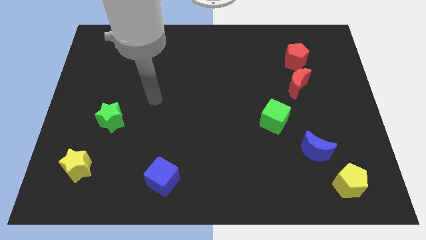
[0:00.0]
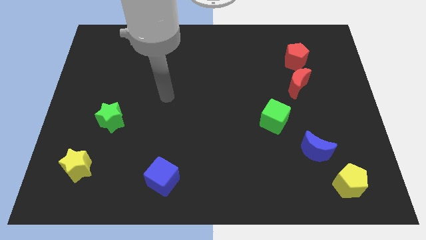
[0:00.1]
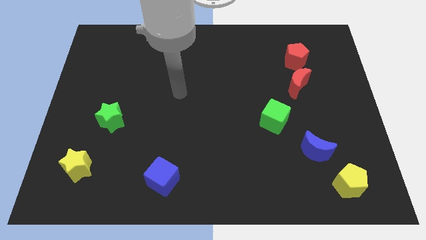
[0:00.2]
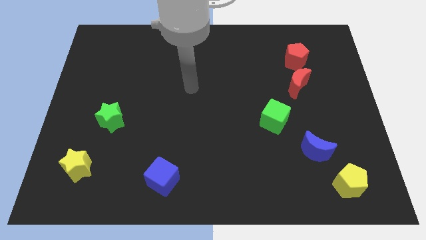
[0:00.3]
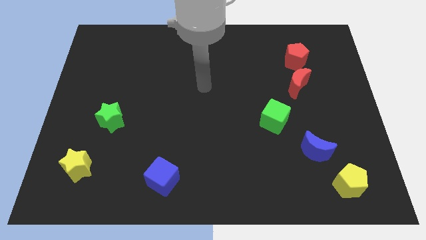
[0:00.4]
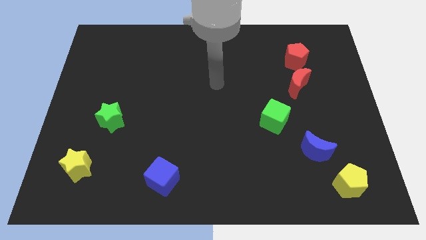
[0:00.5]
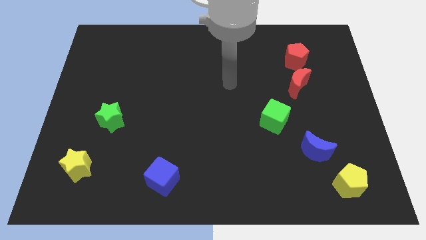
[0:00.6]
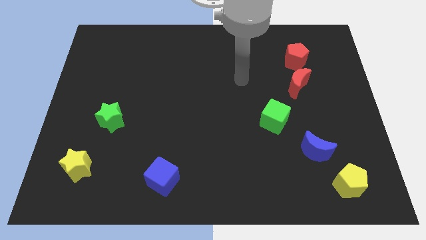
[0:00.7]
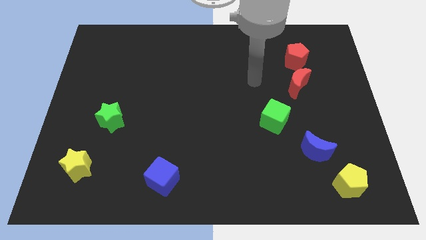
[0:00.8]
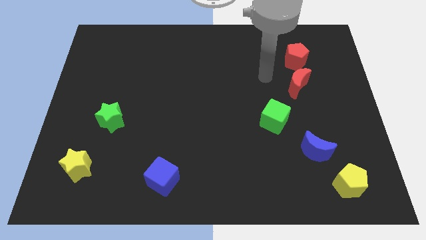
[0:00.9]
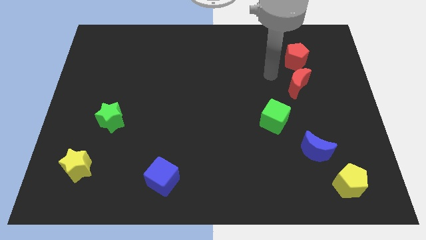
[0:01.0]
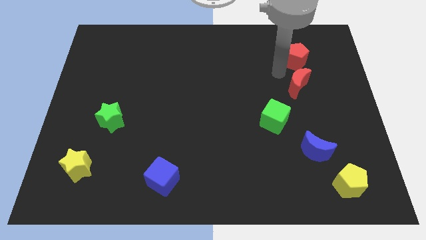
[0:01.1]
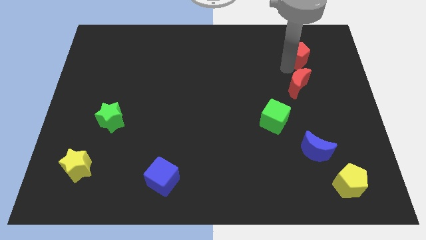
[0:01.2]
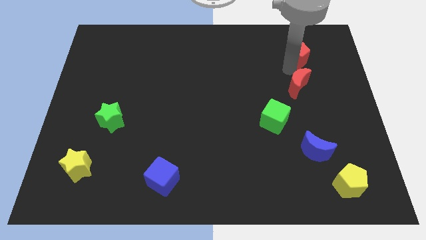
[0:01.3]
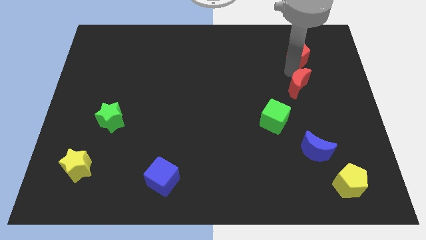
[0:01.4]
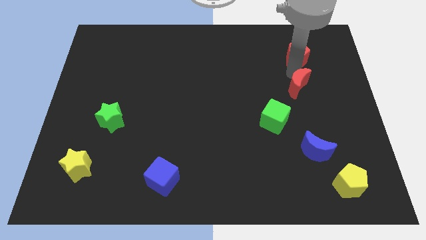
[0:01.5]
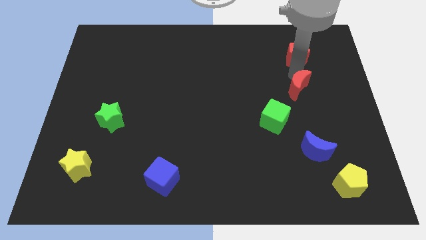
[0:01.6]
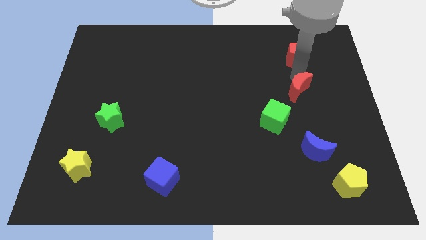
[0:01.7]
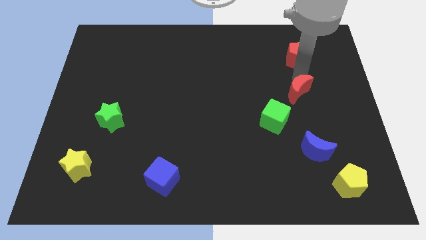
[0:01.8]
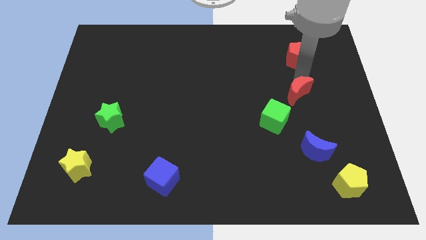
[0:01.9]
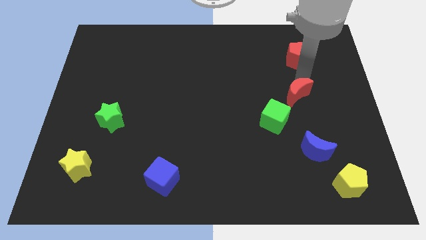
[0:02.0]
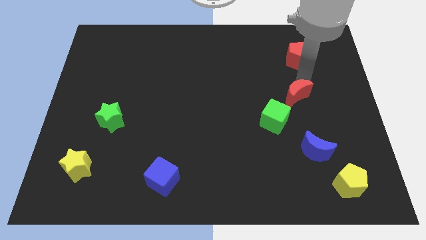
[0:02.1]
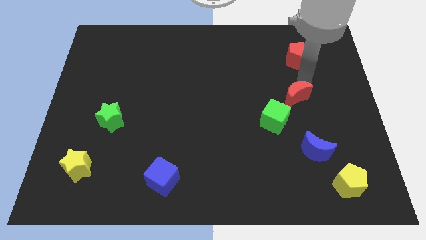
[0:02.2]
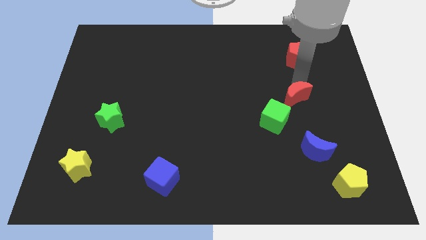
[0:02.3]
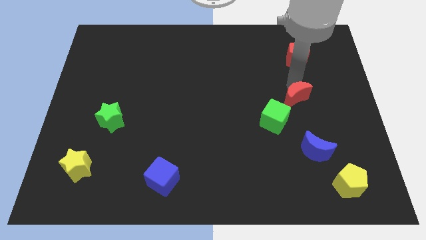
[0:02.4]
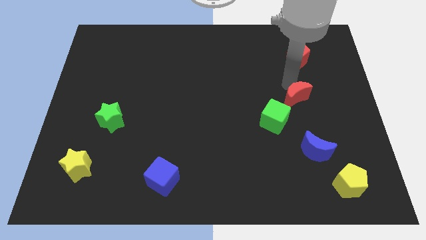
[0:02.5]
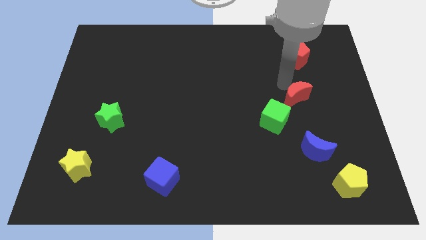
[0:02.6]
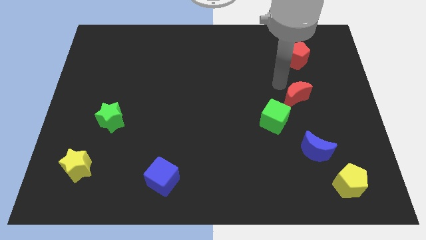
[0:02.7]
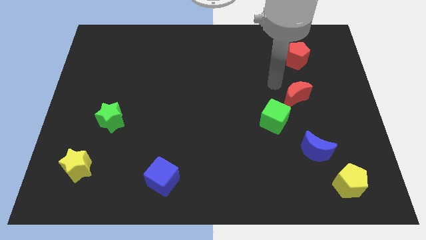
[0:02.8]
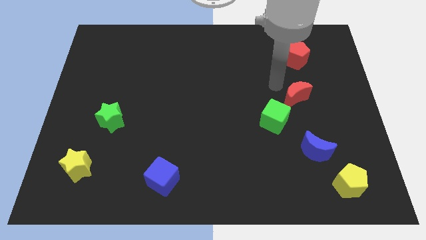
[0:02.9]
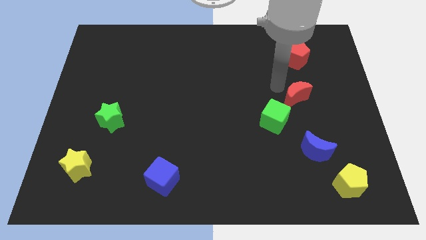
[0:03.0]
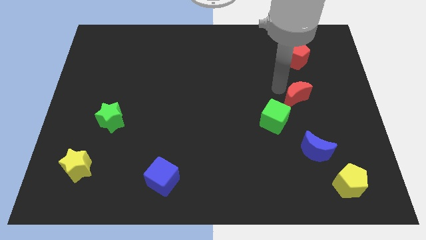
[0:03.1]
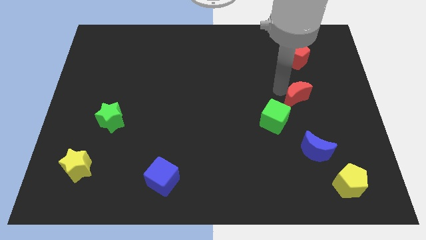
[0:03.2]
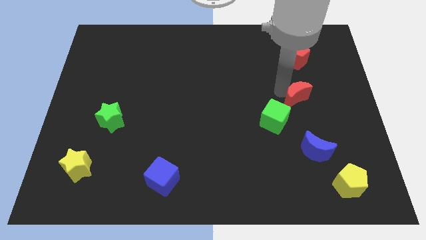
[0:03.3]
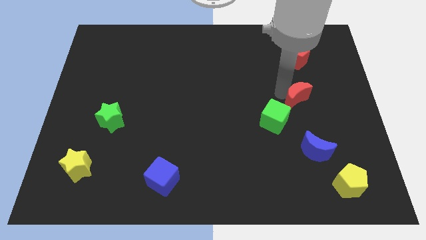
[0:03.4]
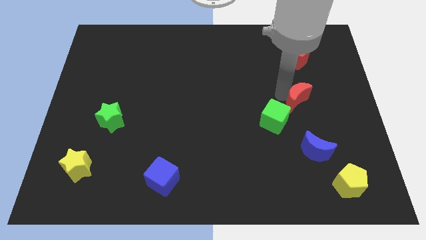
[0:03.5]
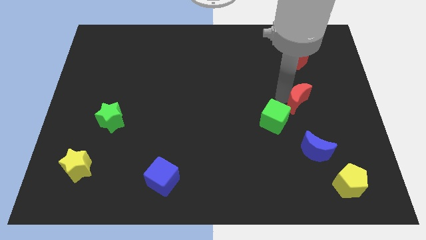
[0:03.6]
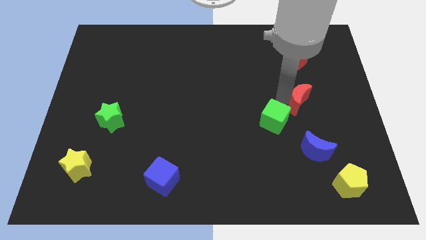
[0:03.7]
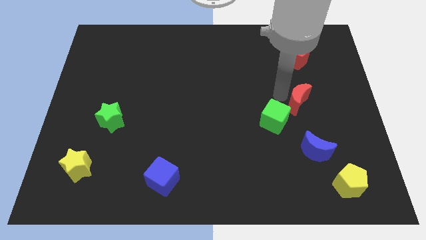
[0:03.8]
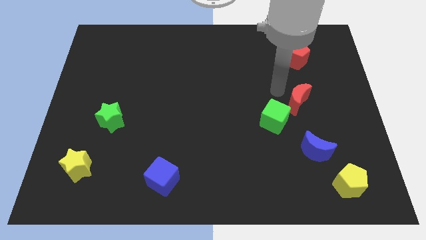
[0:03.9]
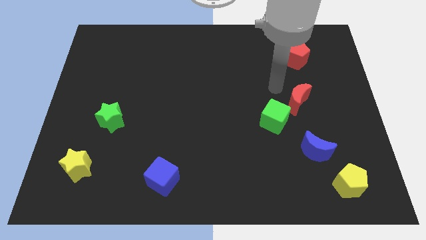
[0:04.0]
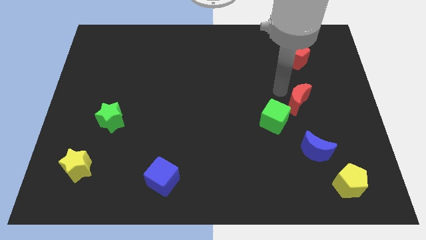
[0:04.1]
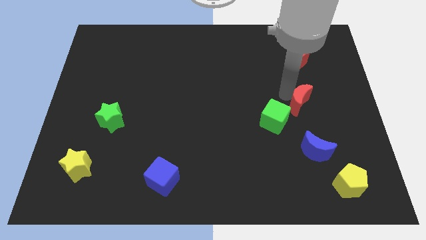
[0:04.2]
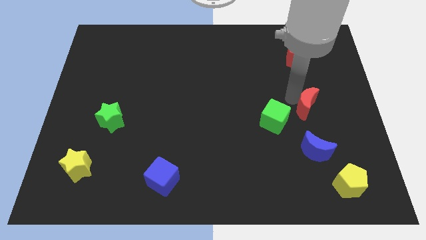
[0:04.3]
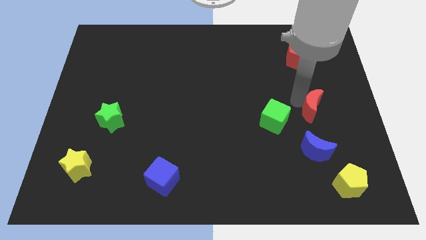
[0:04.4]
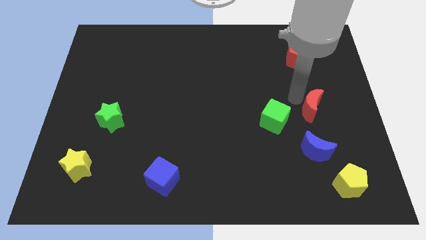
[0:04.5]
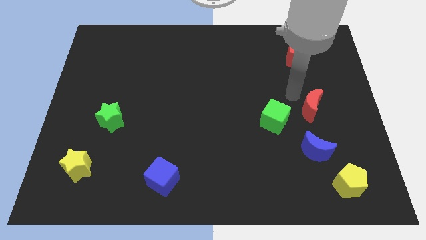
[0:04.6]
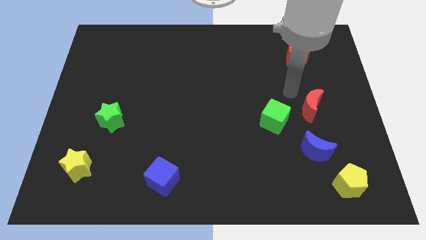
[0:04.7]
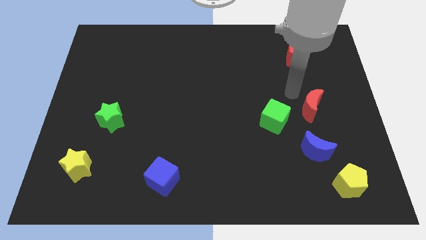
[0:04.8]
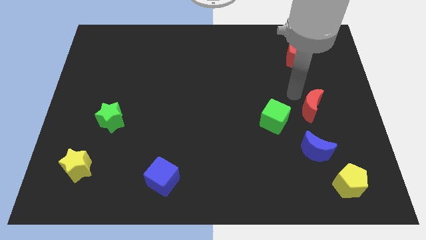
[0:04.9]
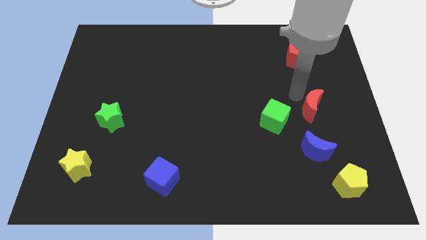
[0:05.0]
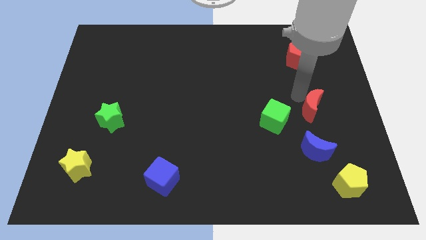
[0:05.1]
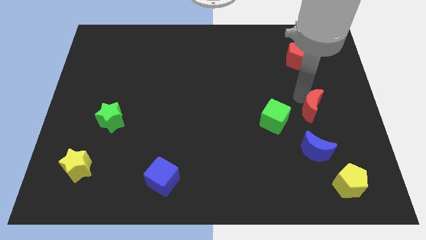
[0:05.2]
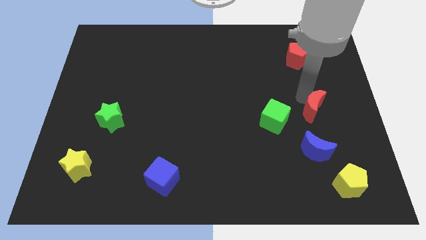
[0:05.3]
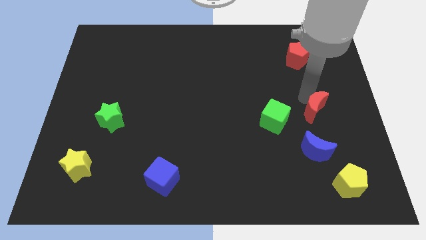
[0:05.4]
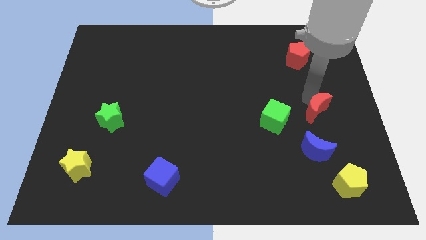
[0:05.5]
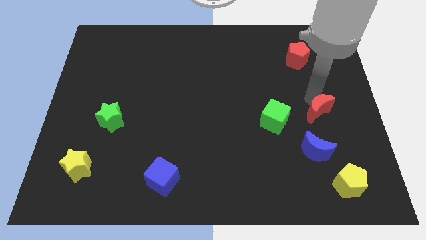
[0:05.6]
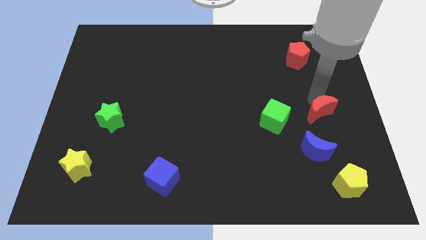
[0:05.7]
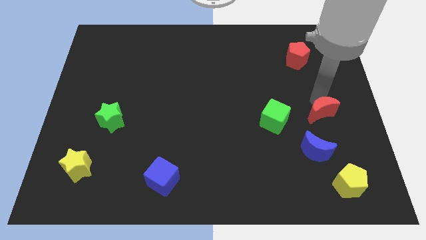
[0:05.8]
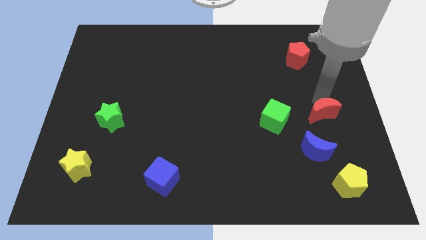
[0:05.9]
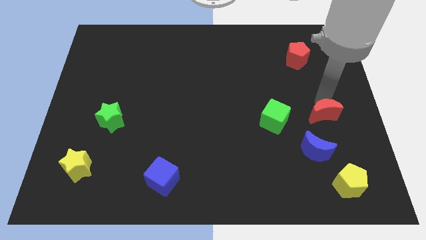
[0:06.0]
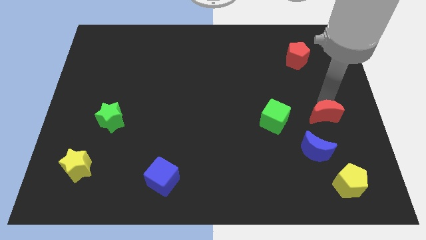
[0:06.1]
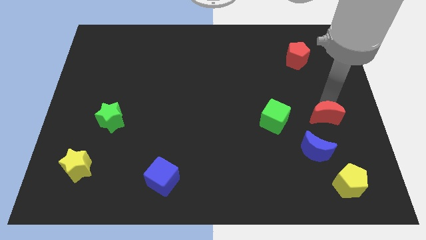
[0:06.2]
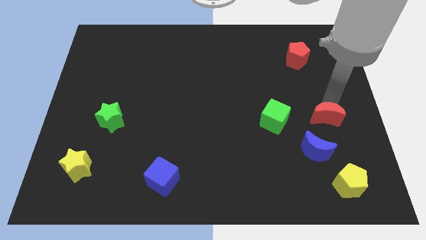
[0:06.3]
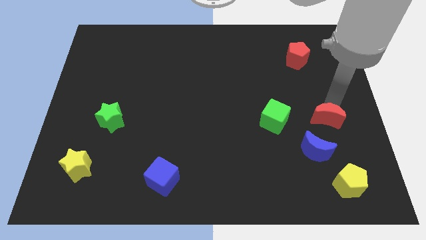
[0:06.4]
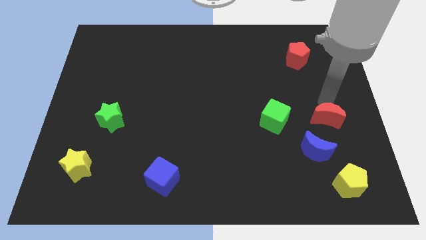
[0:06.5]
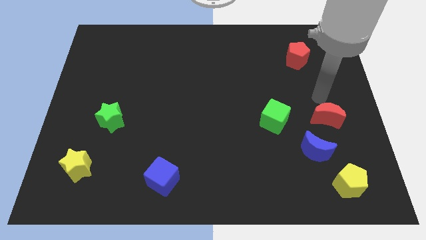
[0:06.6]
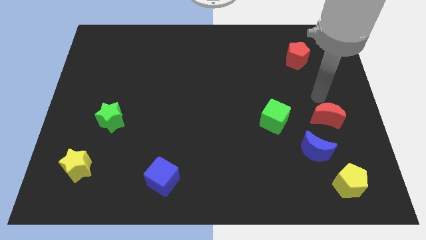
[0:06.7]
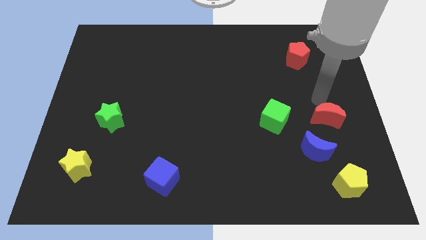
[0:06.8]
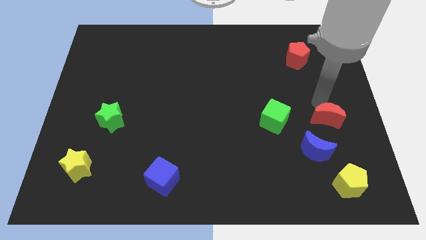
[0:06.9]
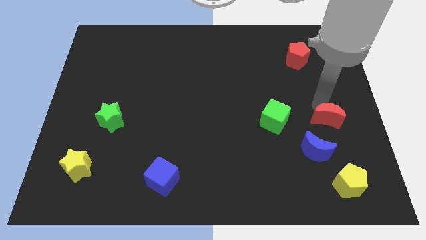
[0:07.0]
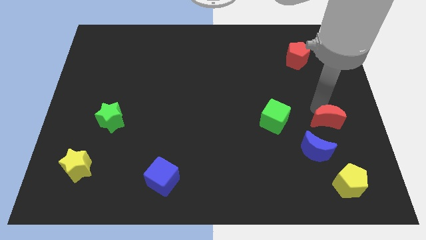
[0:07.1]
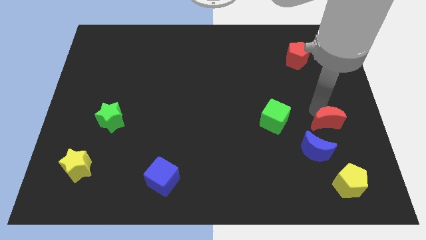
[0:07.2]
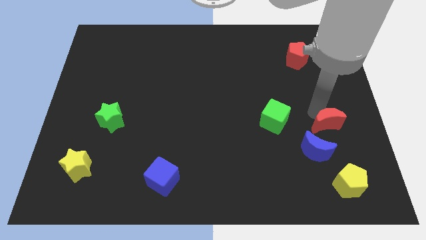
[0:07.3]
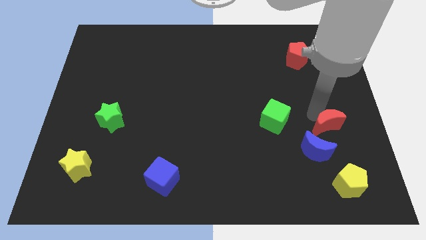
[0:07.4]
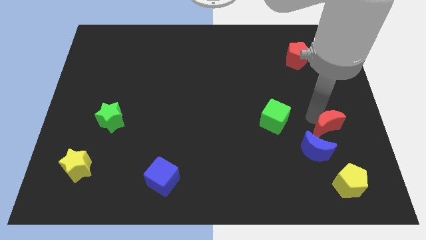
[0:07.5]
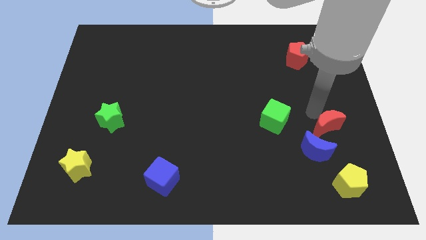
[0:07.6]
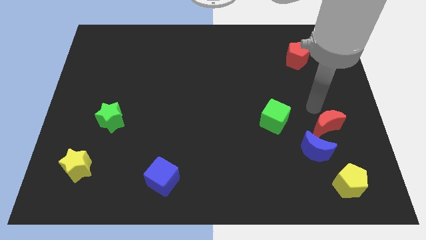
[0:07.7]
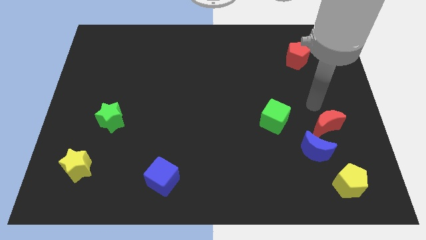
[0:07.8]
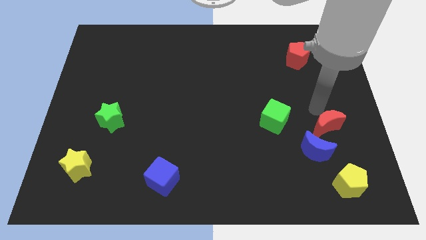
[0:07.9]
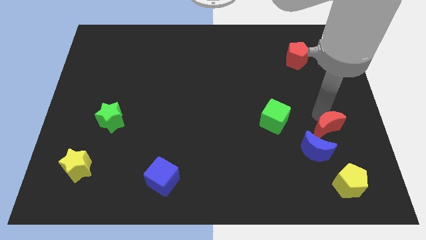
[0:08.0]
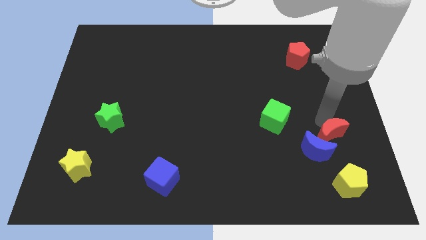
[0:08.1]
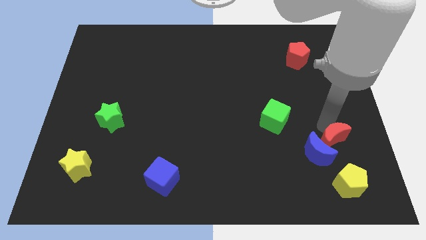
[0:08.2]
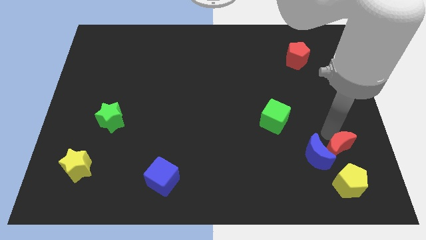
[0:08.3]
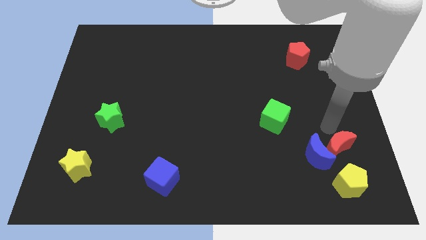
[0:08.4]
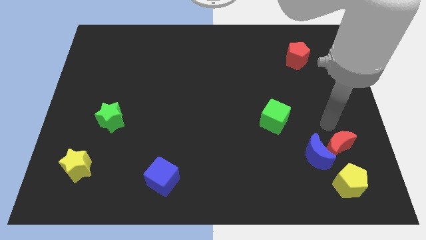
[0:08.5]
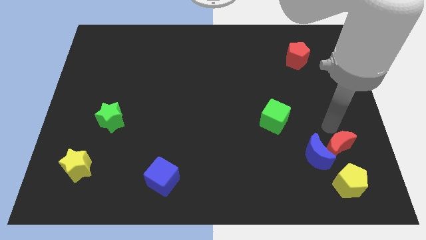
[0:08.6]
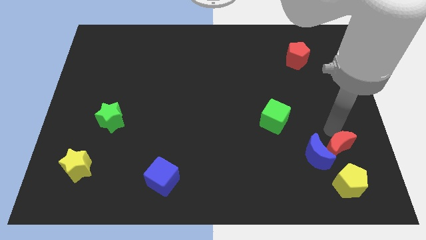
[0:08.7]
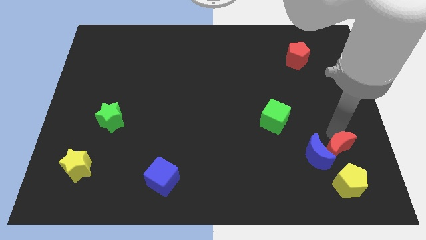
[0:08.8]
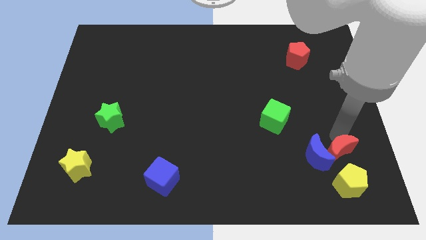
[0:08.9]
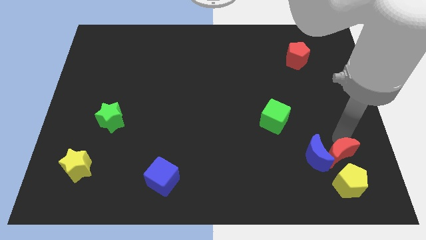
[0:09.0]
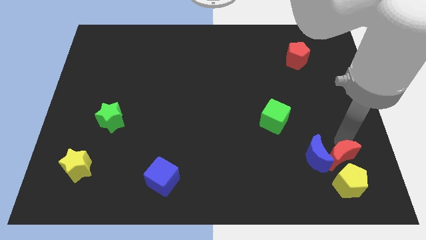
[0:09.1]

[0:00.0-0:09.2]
slide the red moon to the yellow pentagon
